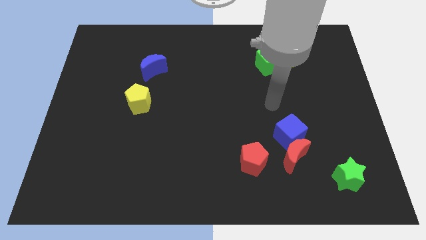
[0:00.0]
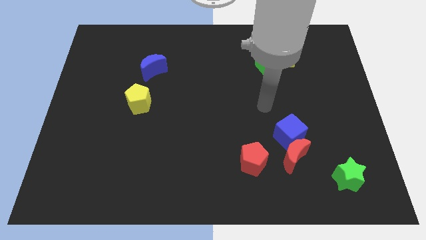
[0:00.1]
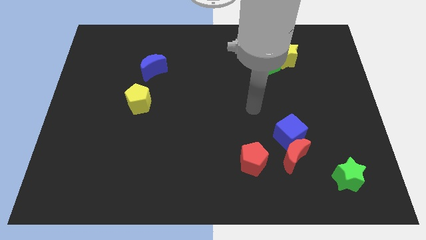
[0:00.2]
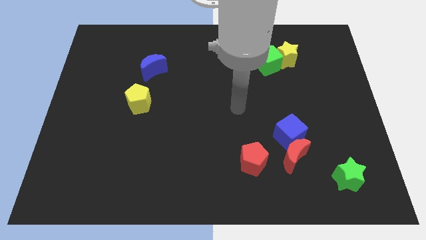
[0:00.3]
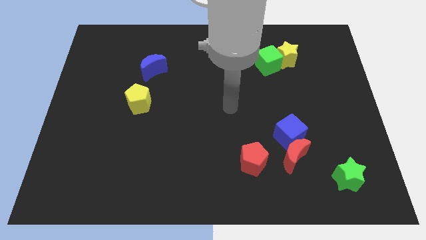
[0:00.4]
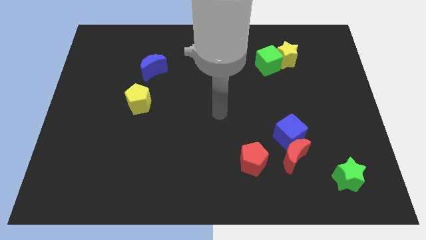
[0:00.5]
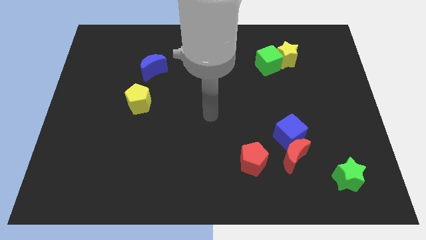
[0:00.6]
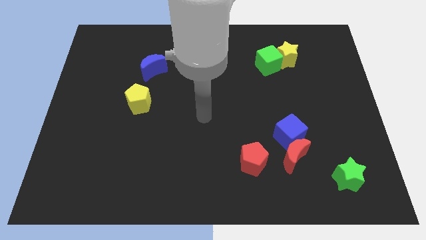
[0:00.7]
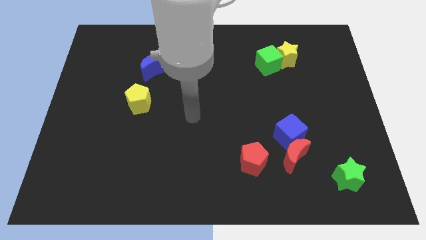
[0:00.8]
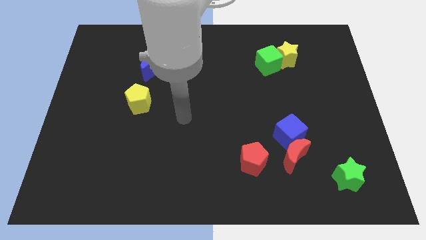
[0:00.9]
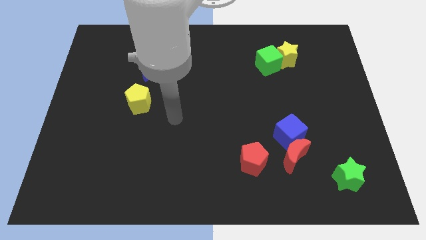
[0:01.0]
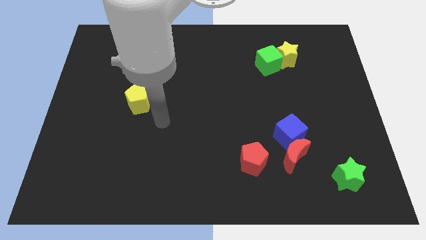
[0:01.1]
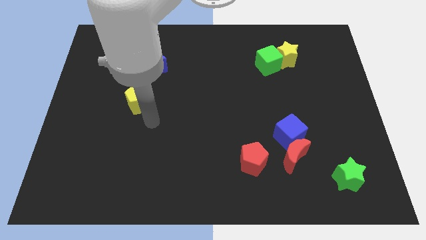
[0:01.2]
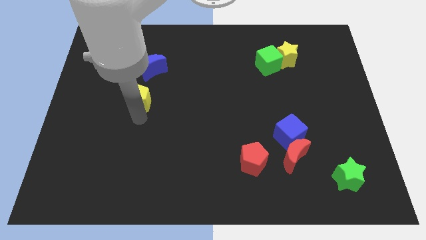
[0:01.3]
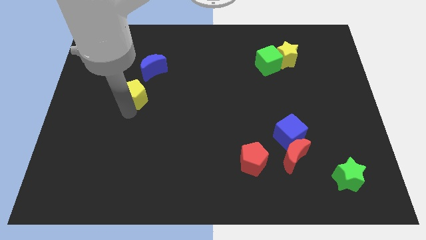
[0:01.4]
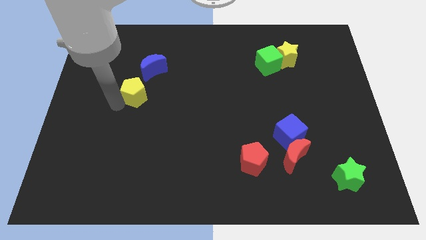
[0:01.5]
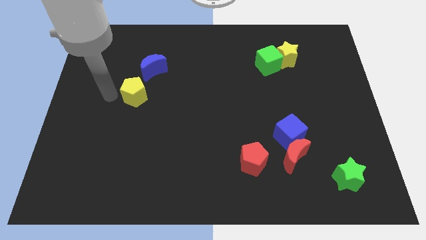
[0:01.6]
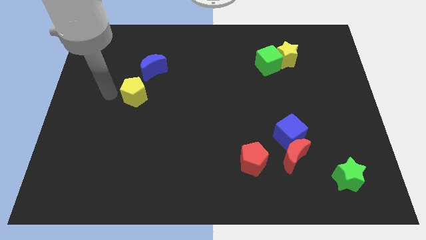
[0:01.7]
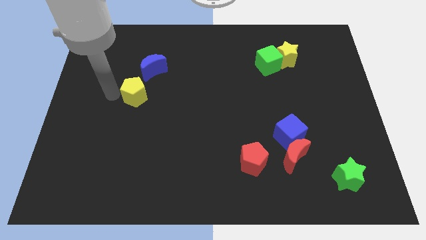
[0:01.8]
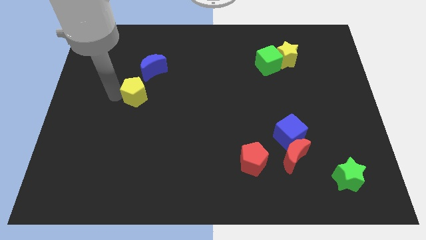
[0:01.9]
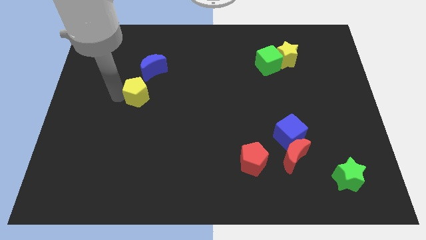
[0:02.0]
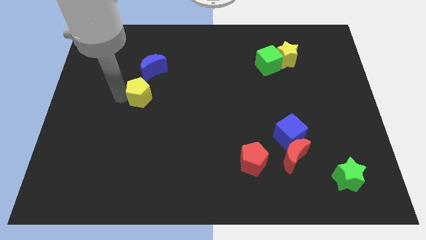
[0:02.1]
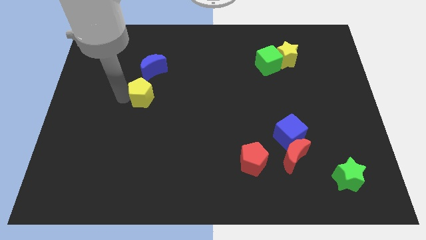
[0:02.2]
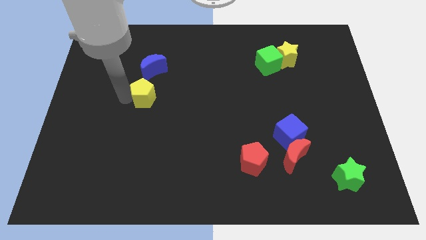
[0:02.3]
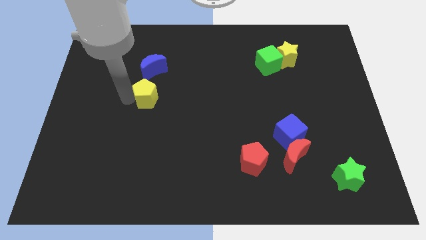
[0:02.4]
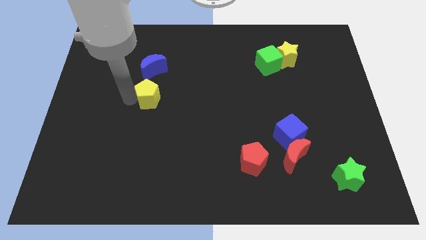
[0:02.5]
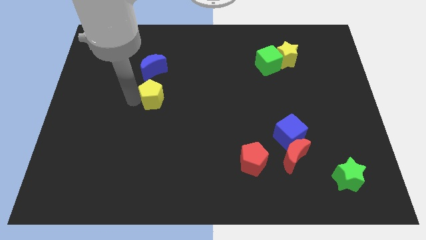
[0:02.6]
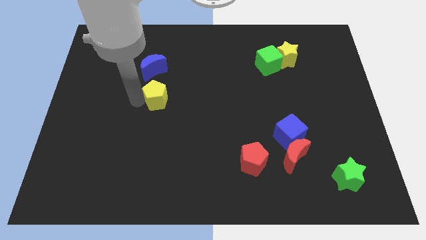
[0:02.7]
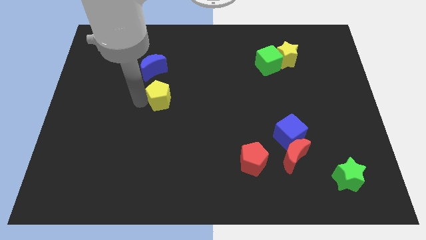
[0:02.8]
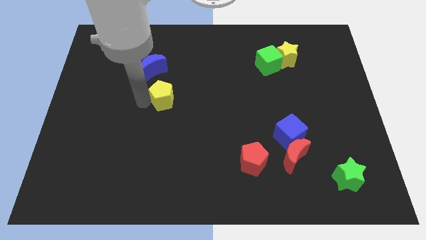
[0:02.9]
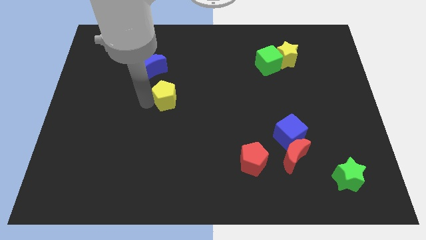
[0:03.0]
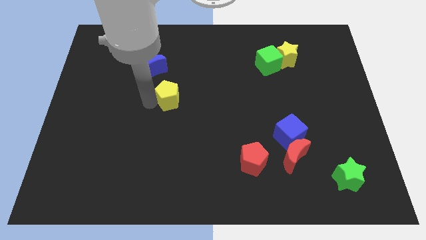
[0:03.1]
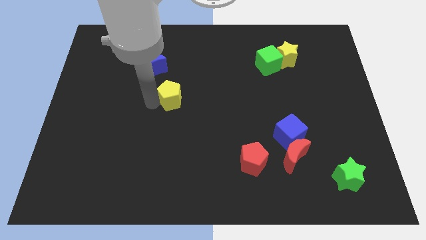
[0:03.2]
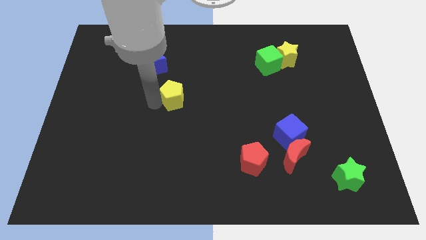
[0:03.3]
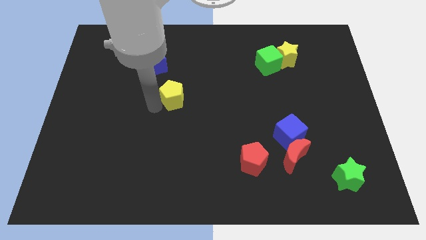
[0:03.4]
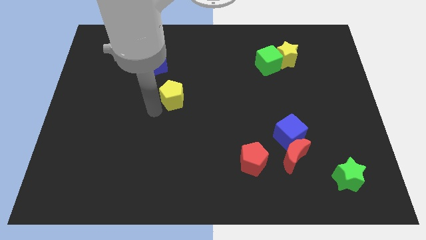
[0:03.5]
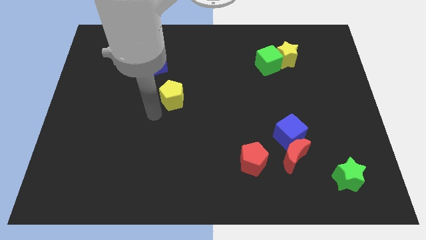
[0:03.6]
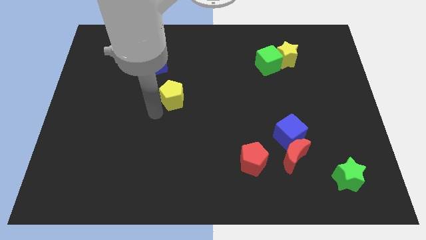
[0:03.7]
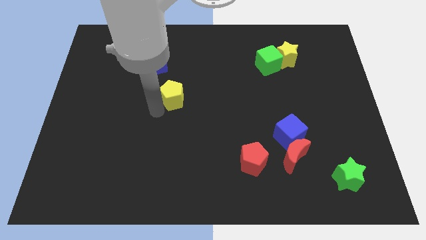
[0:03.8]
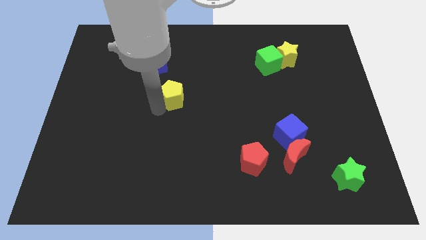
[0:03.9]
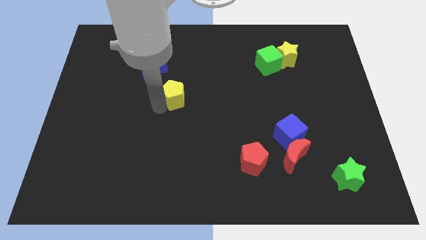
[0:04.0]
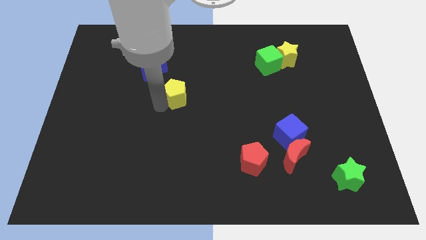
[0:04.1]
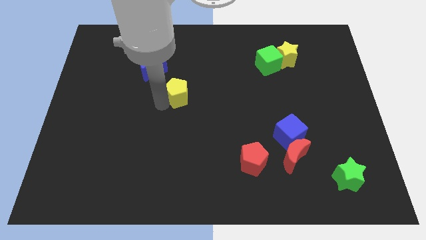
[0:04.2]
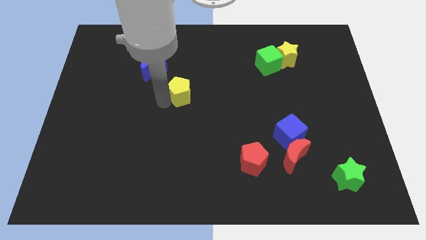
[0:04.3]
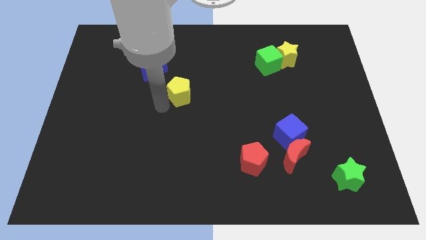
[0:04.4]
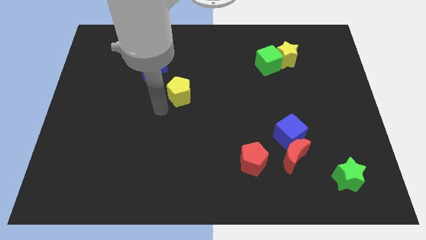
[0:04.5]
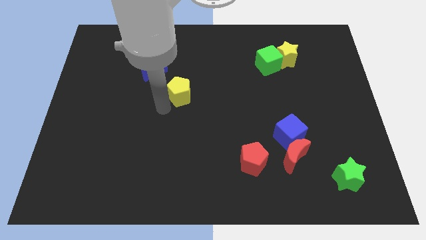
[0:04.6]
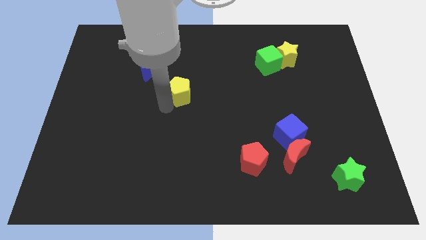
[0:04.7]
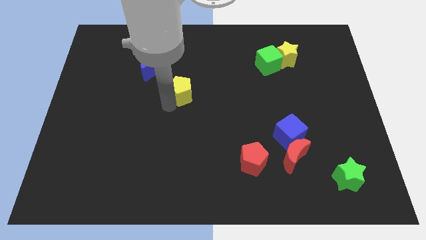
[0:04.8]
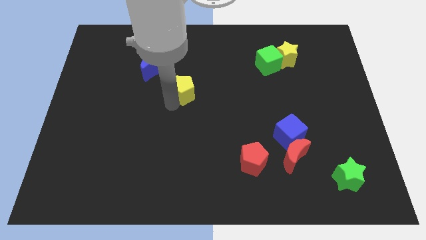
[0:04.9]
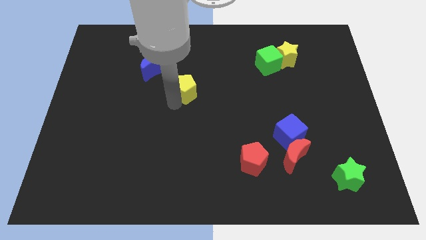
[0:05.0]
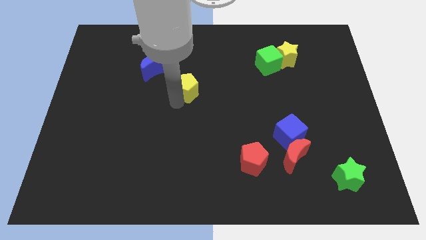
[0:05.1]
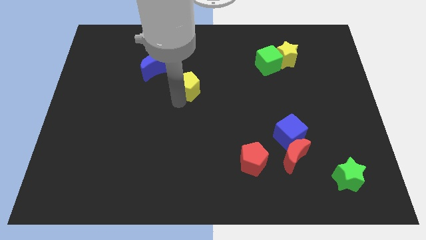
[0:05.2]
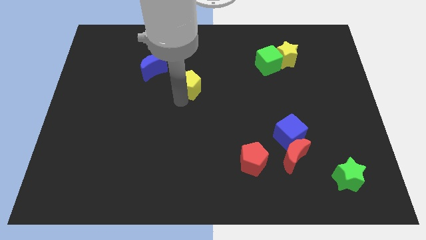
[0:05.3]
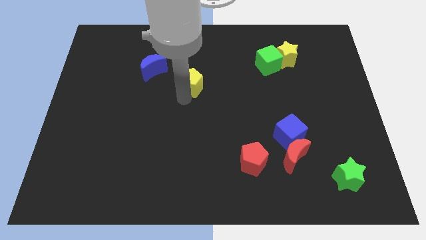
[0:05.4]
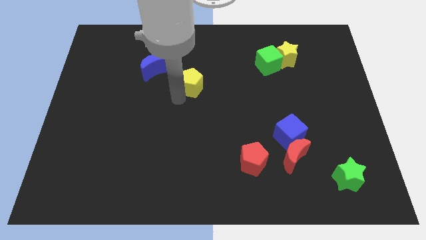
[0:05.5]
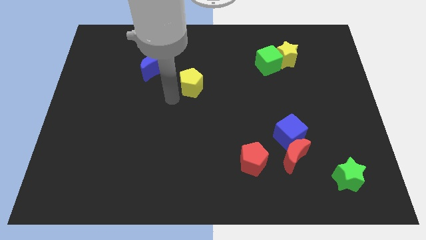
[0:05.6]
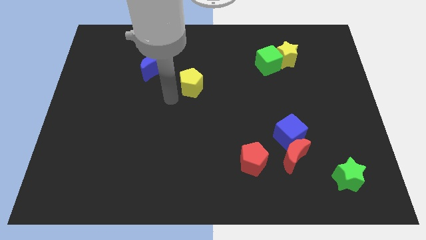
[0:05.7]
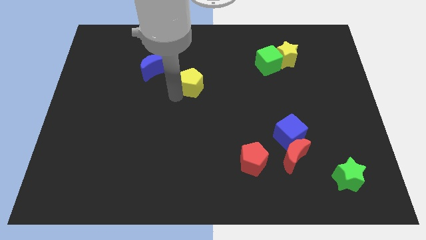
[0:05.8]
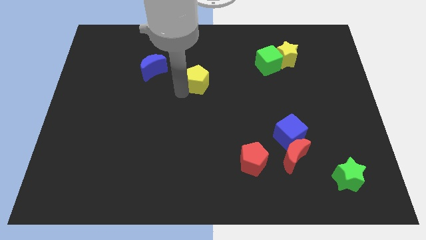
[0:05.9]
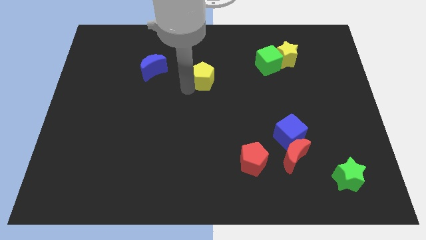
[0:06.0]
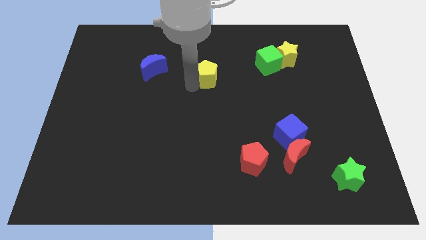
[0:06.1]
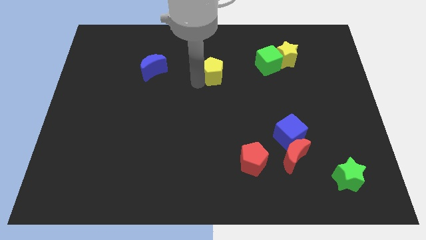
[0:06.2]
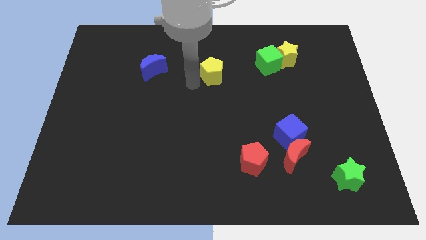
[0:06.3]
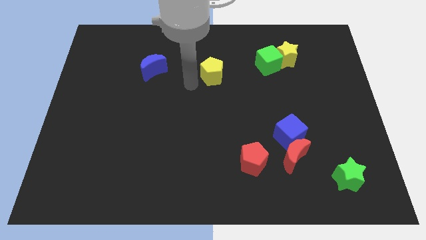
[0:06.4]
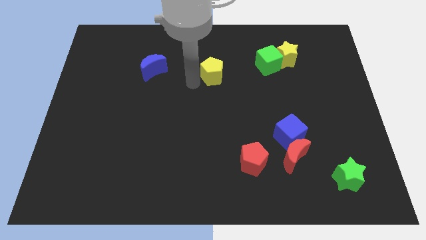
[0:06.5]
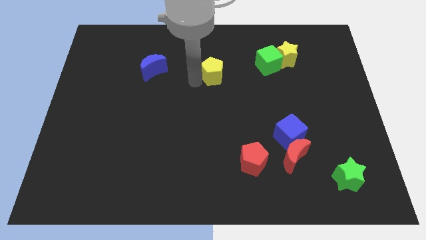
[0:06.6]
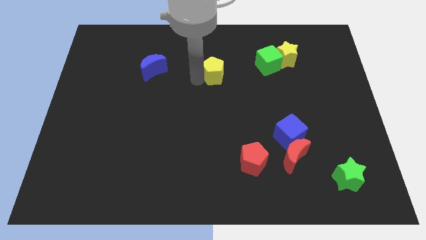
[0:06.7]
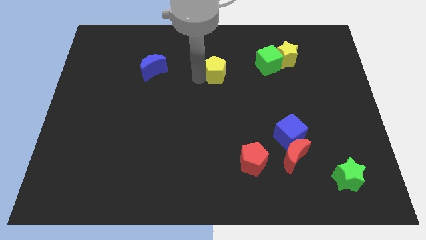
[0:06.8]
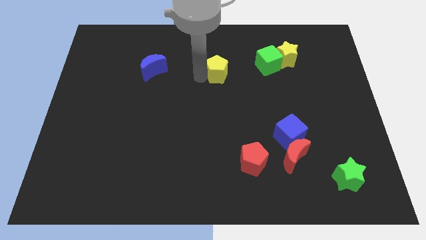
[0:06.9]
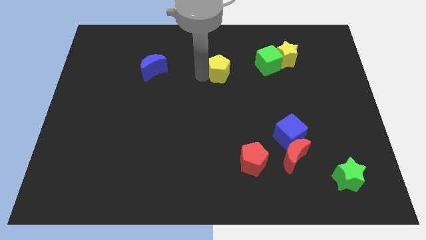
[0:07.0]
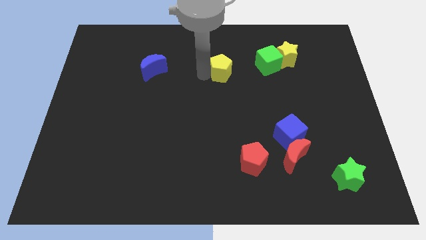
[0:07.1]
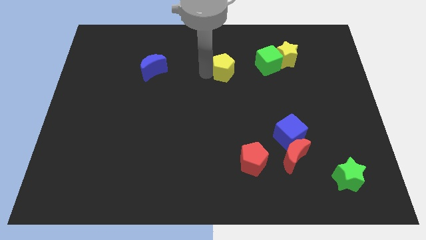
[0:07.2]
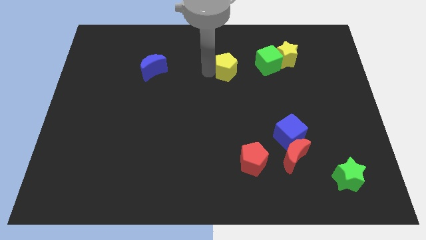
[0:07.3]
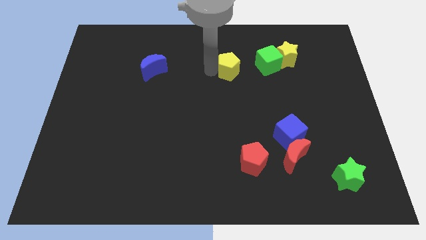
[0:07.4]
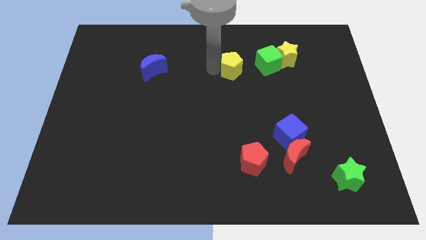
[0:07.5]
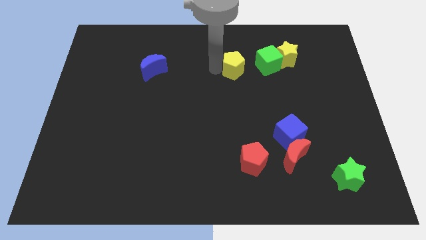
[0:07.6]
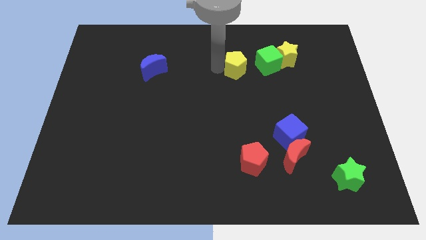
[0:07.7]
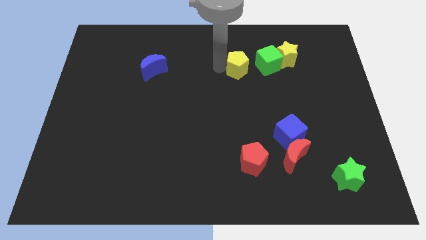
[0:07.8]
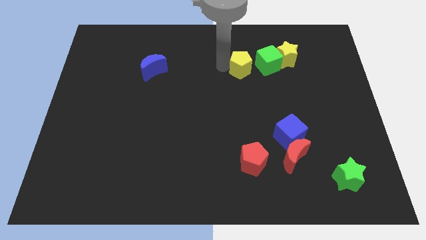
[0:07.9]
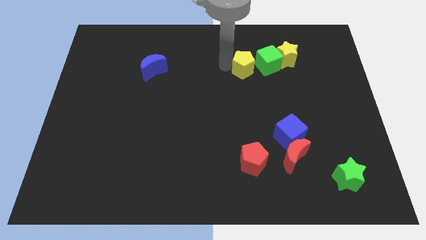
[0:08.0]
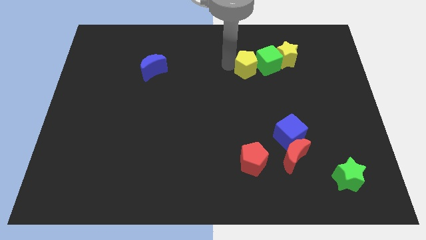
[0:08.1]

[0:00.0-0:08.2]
push the yellow pentagon next to the green cube
